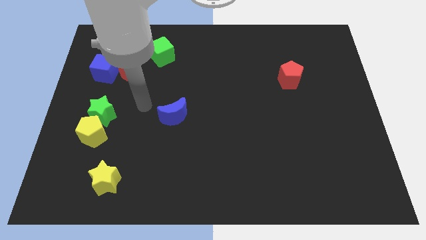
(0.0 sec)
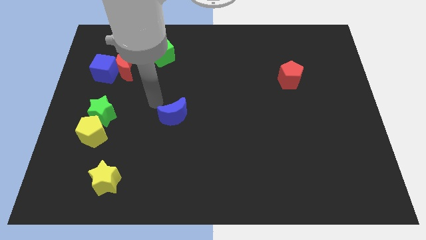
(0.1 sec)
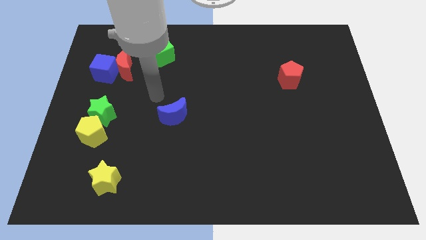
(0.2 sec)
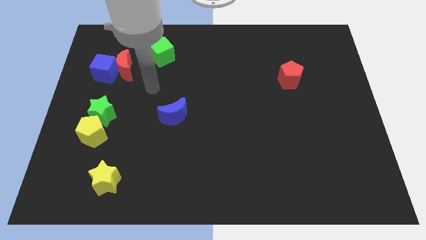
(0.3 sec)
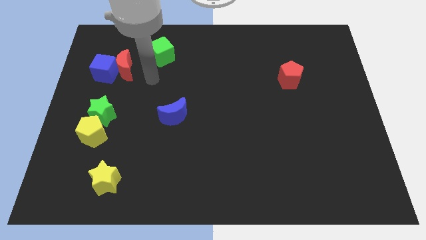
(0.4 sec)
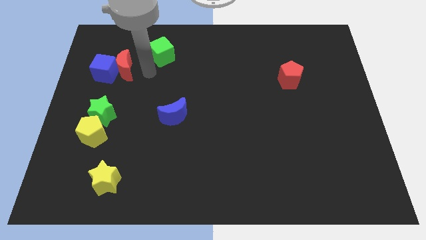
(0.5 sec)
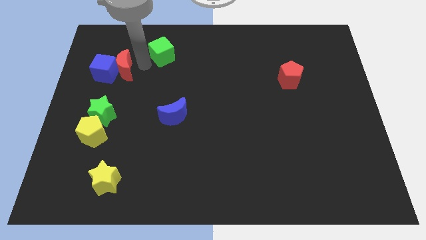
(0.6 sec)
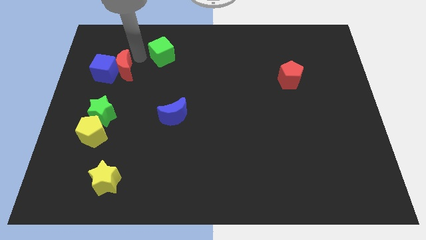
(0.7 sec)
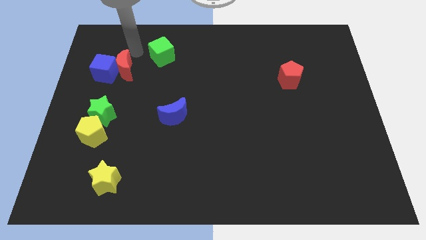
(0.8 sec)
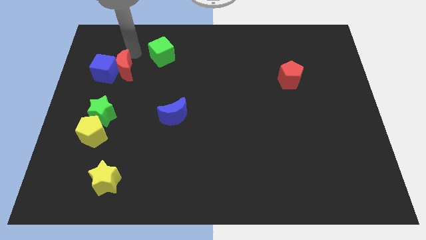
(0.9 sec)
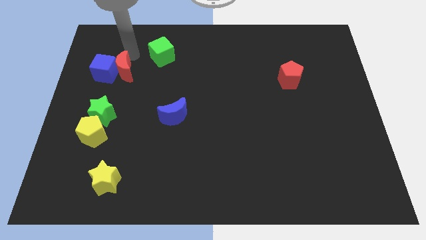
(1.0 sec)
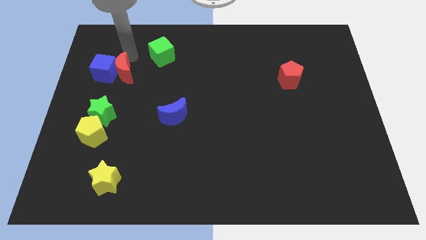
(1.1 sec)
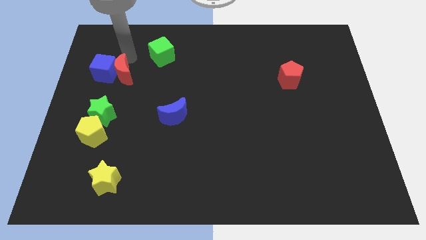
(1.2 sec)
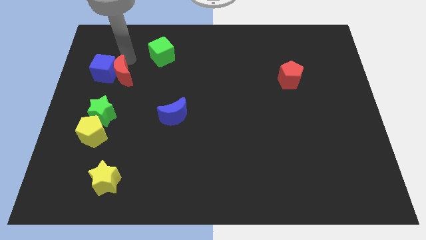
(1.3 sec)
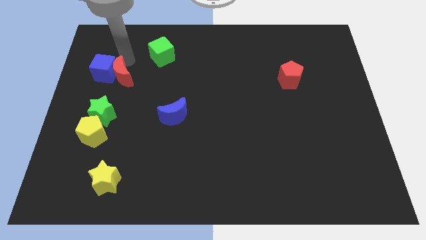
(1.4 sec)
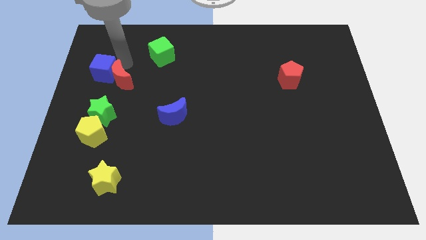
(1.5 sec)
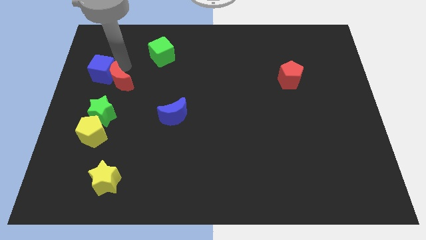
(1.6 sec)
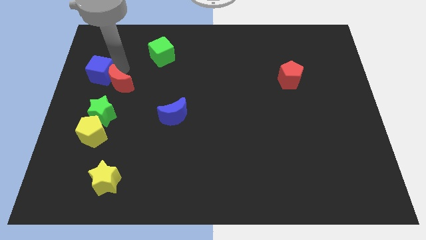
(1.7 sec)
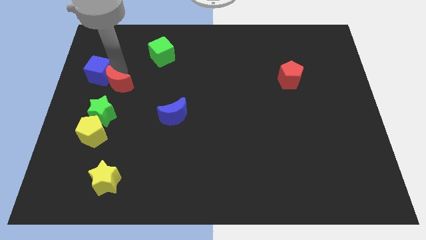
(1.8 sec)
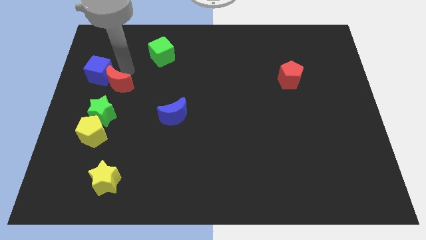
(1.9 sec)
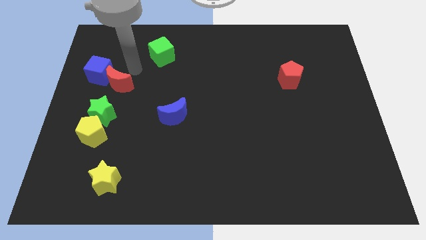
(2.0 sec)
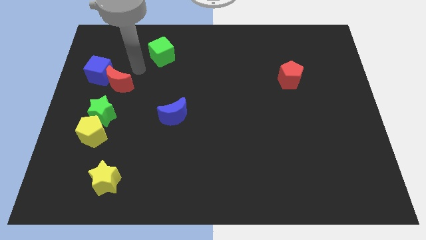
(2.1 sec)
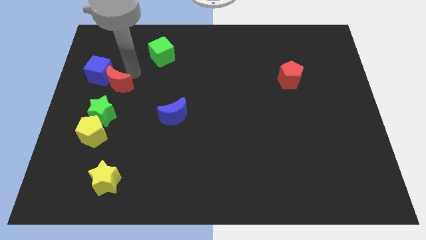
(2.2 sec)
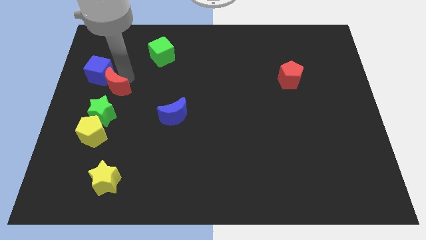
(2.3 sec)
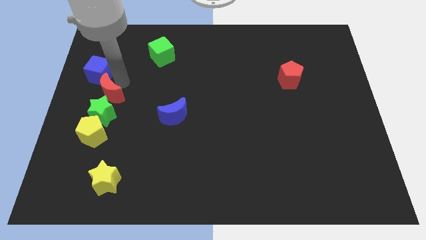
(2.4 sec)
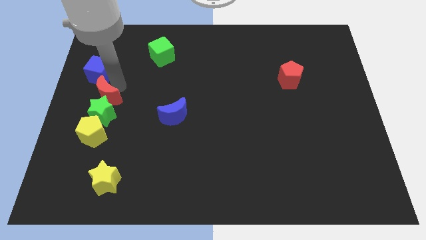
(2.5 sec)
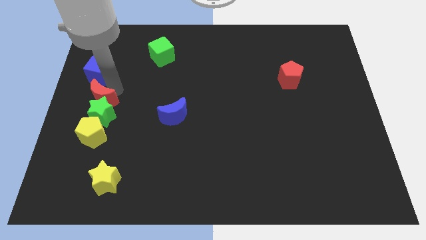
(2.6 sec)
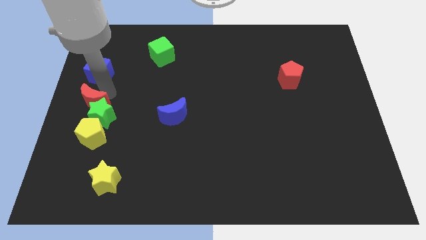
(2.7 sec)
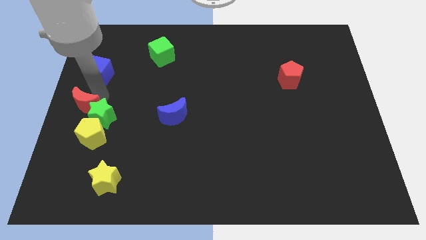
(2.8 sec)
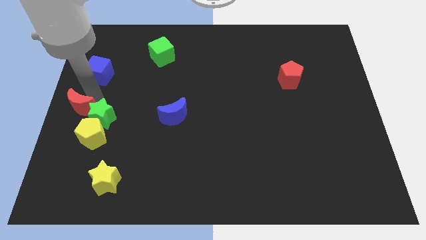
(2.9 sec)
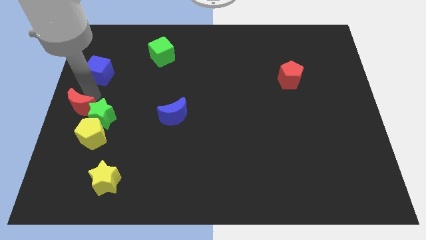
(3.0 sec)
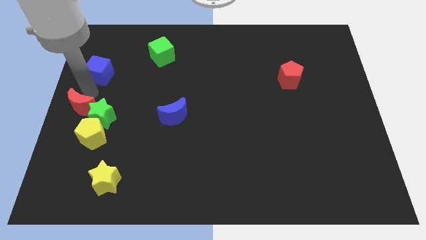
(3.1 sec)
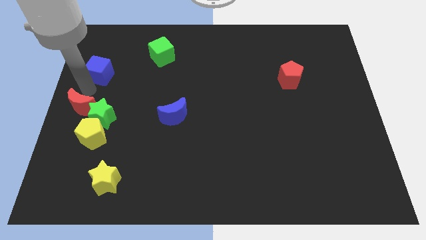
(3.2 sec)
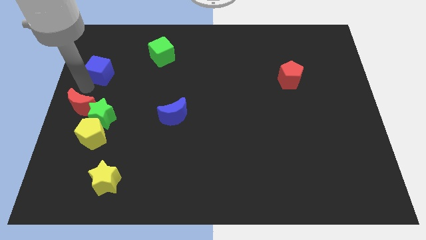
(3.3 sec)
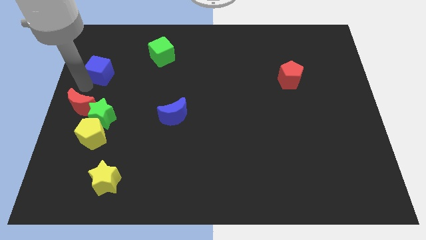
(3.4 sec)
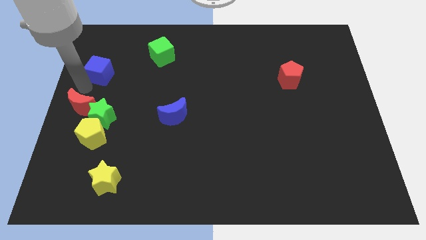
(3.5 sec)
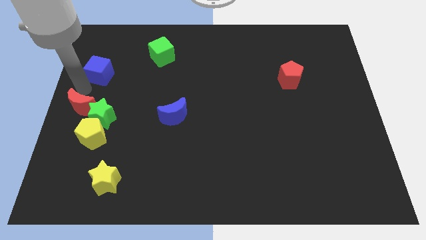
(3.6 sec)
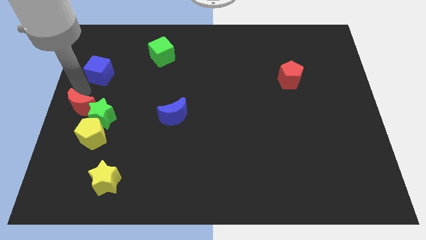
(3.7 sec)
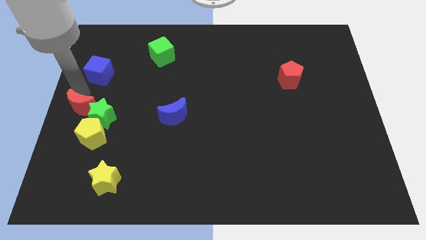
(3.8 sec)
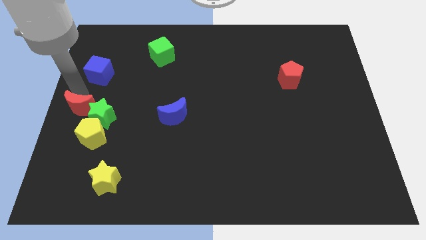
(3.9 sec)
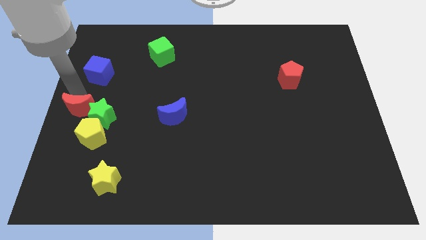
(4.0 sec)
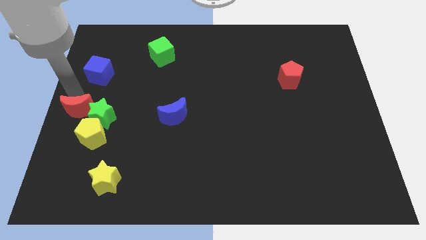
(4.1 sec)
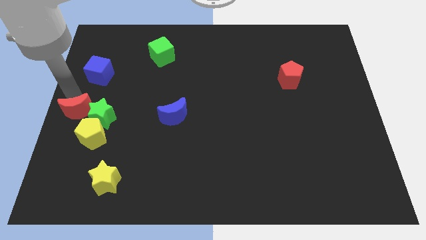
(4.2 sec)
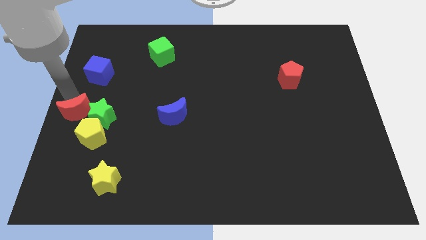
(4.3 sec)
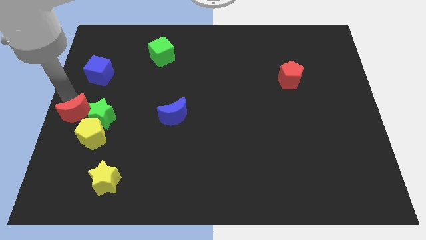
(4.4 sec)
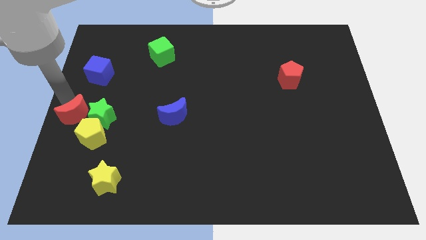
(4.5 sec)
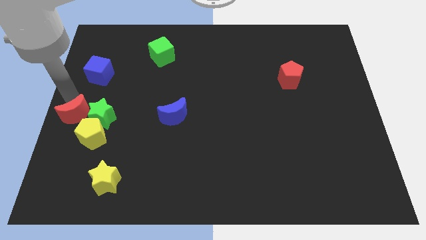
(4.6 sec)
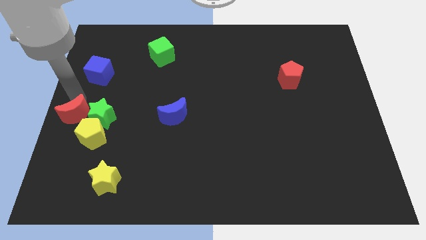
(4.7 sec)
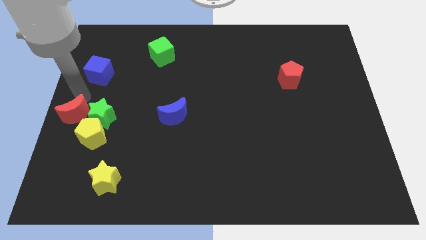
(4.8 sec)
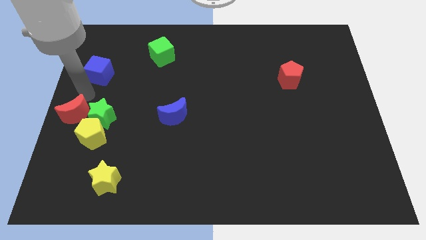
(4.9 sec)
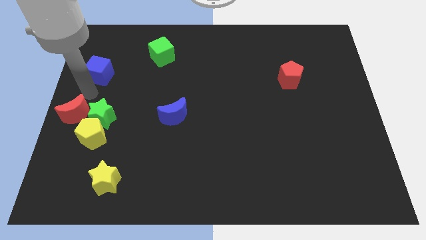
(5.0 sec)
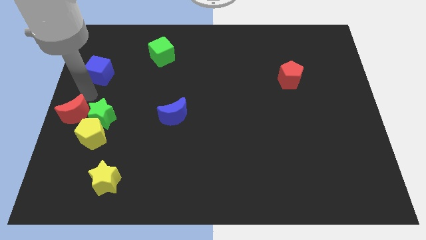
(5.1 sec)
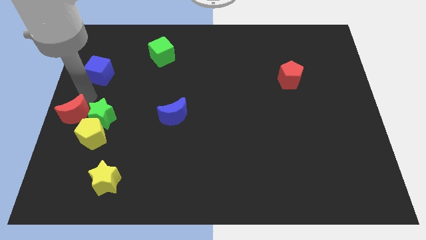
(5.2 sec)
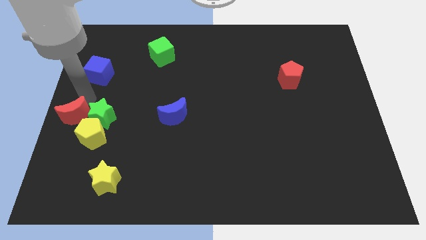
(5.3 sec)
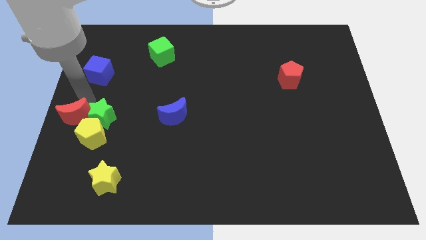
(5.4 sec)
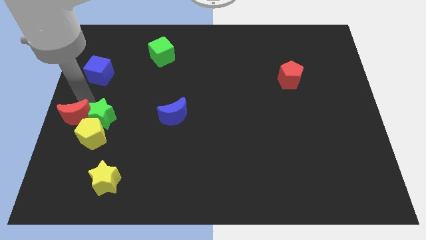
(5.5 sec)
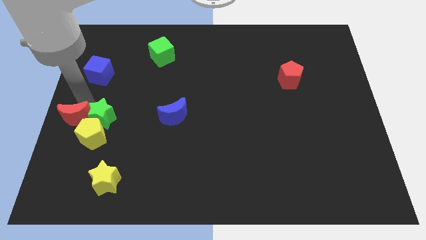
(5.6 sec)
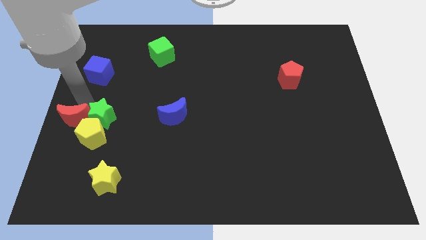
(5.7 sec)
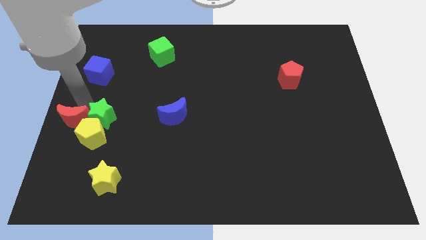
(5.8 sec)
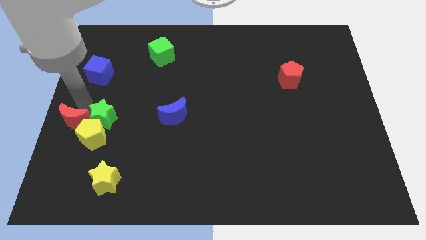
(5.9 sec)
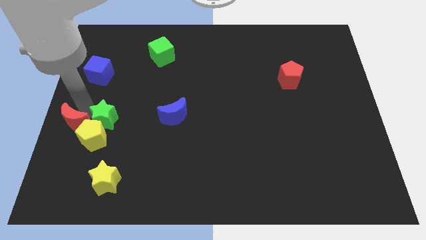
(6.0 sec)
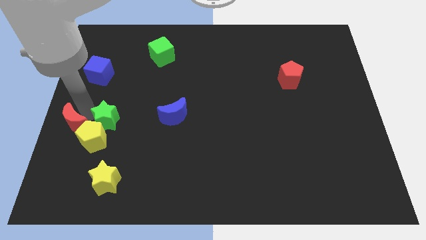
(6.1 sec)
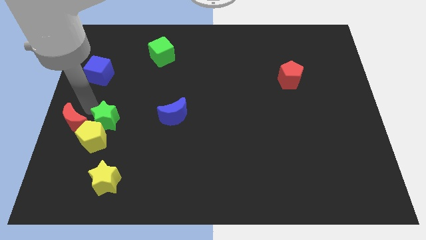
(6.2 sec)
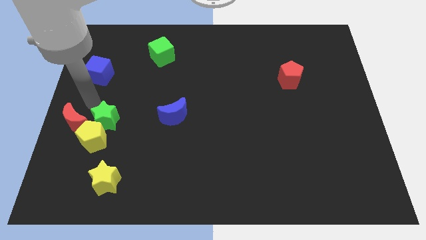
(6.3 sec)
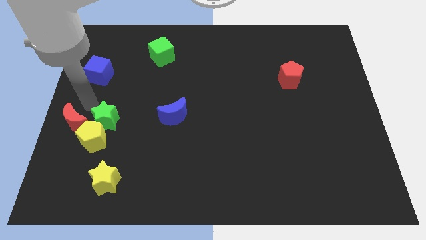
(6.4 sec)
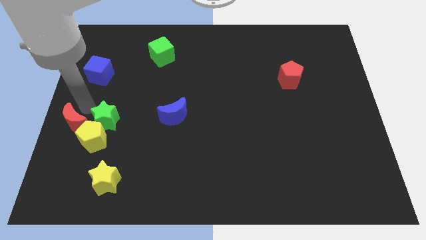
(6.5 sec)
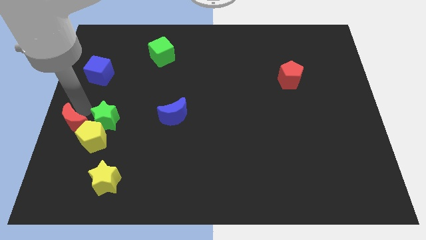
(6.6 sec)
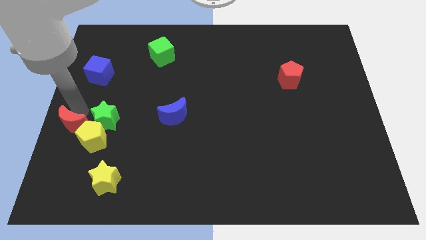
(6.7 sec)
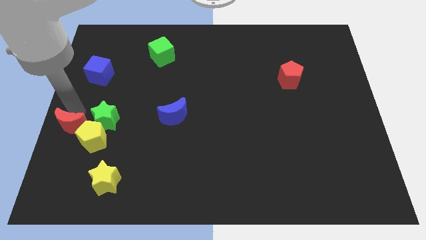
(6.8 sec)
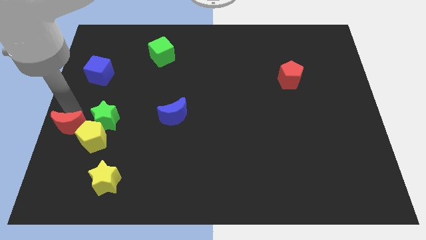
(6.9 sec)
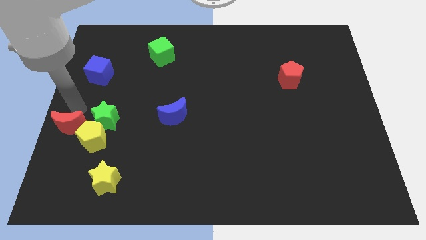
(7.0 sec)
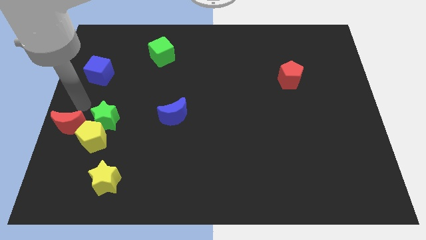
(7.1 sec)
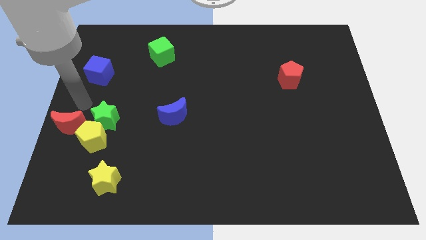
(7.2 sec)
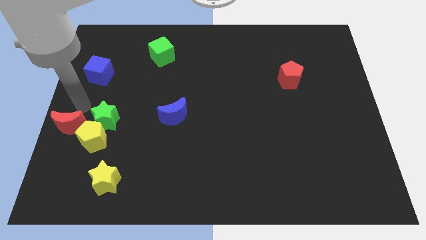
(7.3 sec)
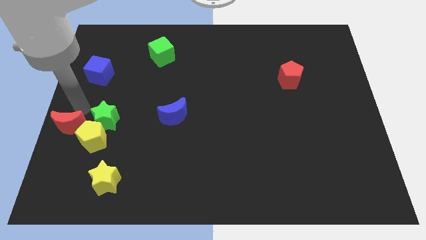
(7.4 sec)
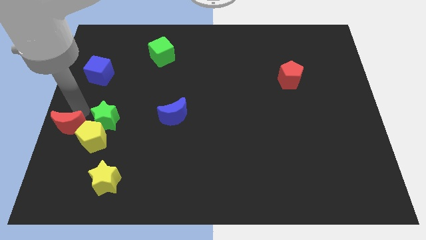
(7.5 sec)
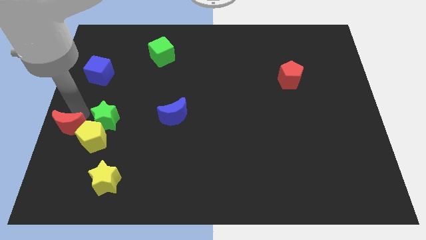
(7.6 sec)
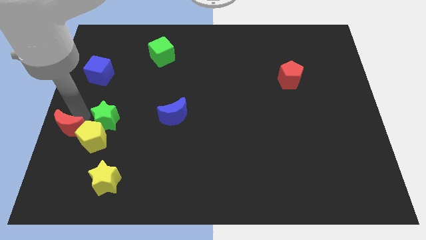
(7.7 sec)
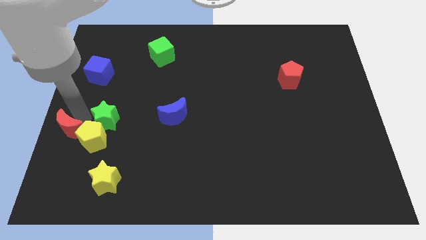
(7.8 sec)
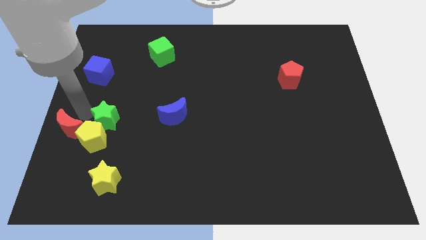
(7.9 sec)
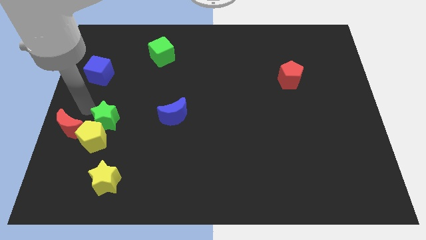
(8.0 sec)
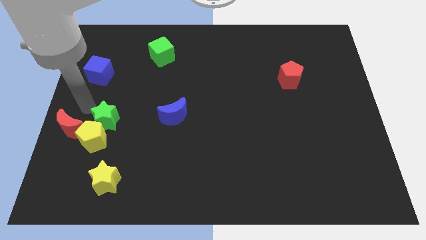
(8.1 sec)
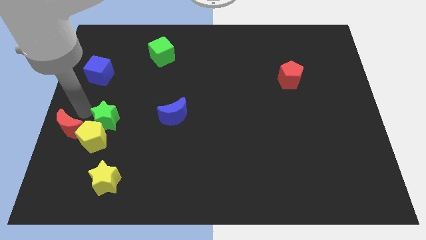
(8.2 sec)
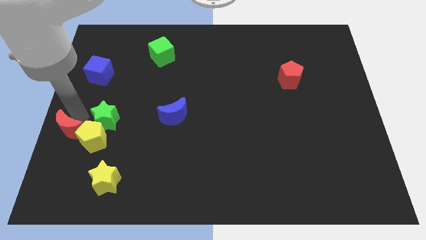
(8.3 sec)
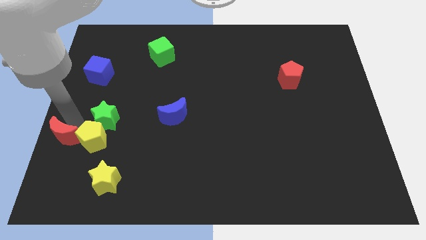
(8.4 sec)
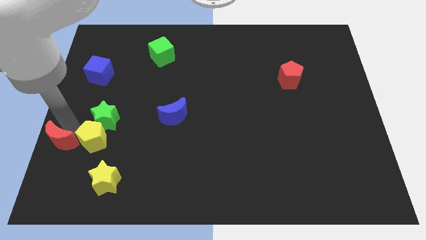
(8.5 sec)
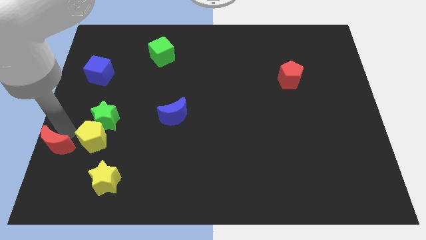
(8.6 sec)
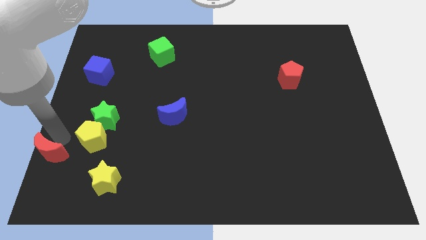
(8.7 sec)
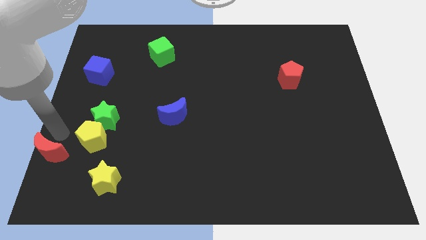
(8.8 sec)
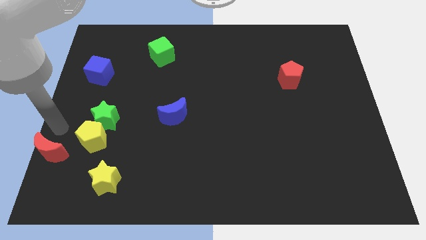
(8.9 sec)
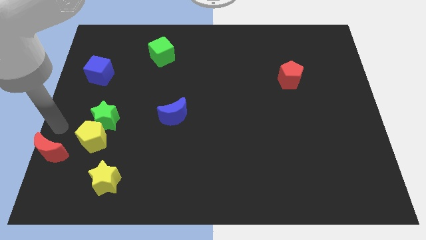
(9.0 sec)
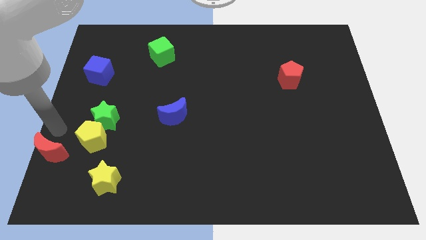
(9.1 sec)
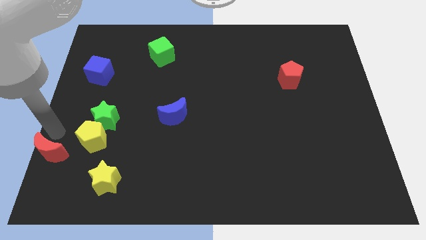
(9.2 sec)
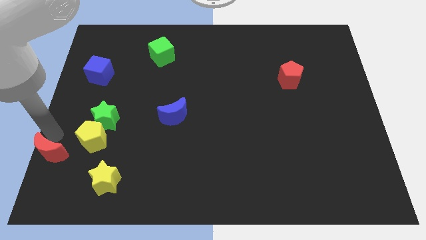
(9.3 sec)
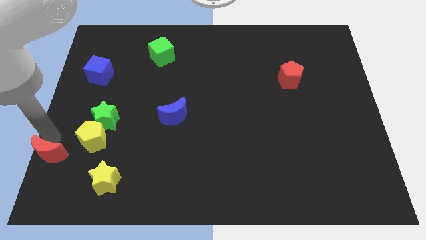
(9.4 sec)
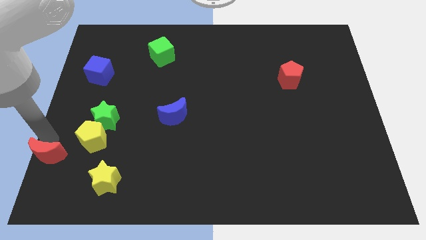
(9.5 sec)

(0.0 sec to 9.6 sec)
put the red moon to the lower left corner
